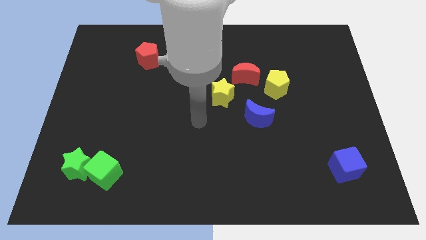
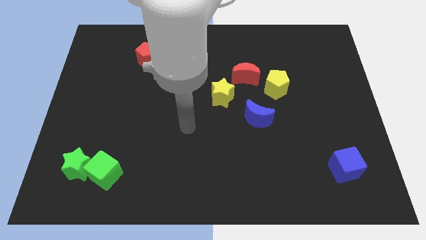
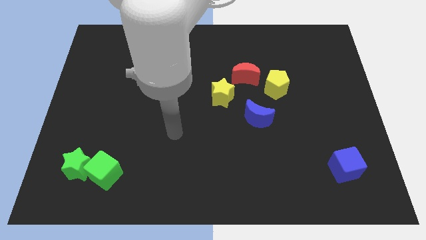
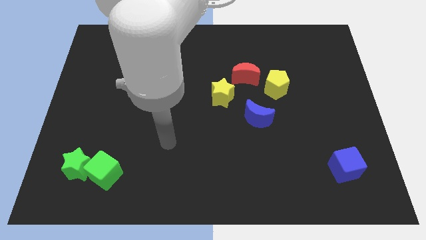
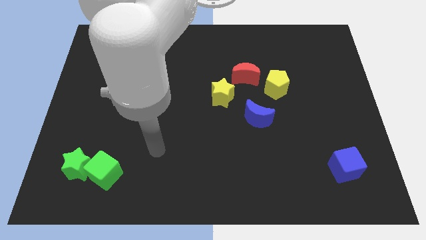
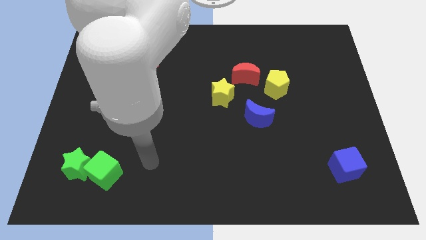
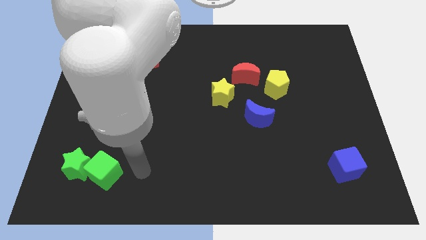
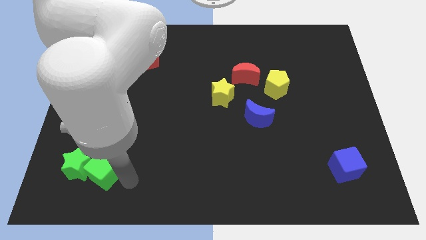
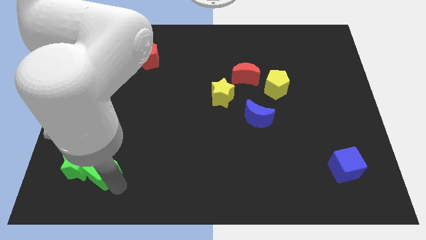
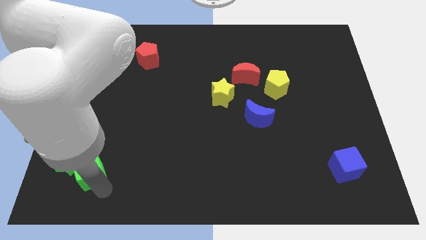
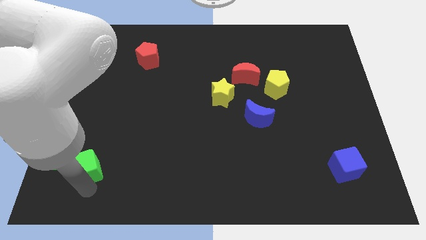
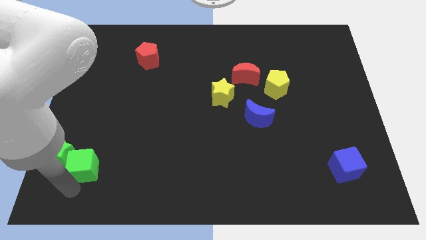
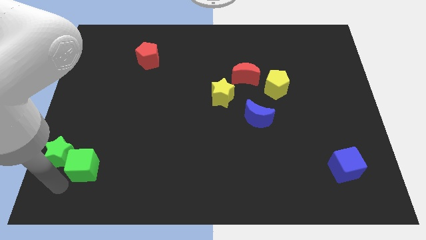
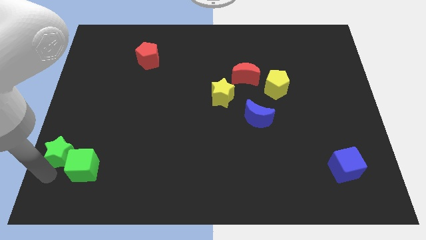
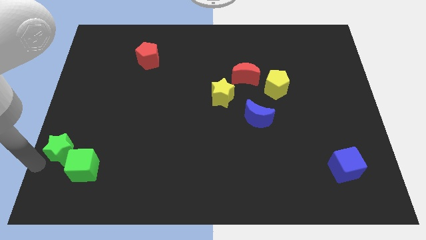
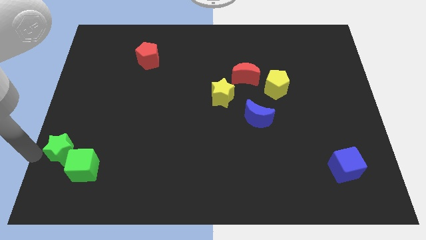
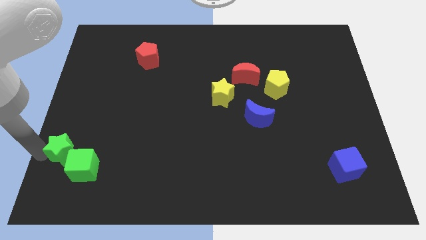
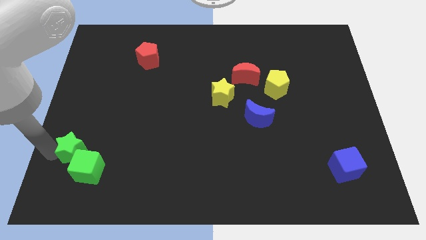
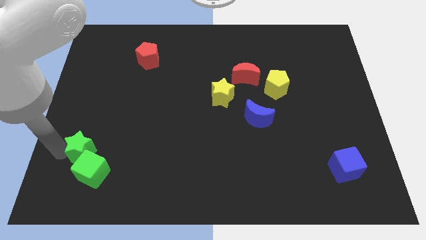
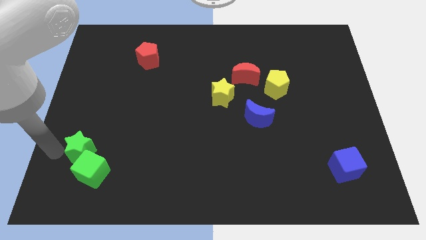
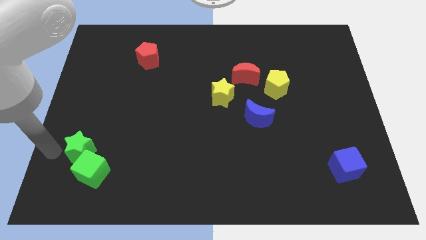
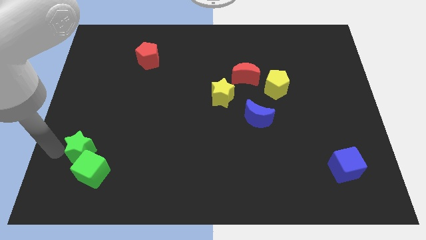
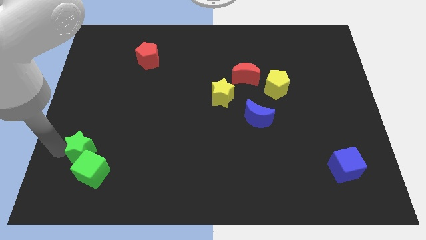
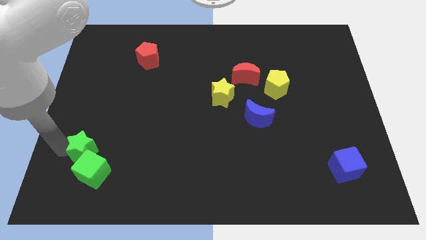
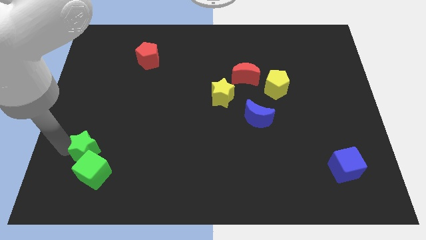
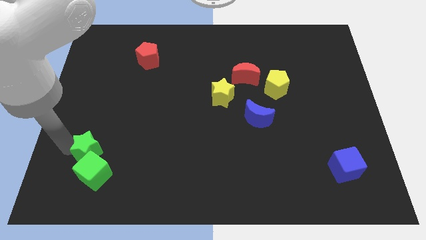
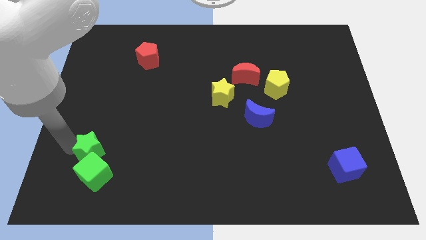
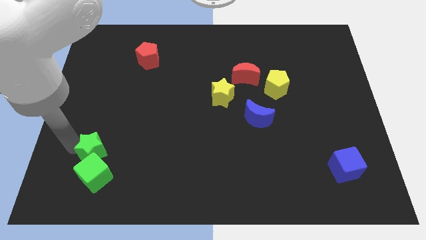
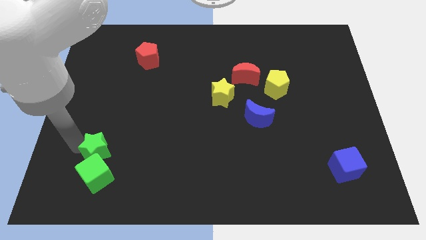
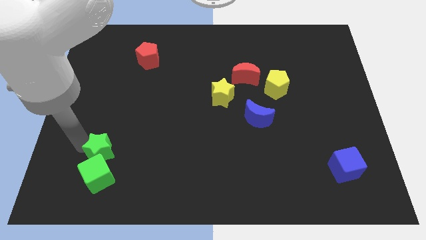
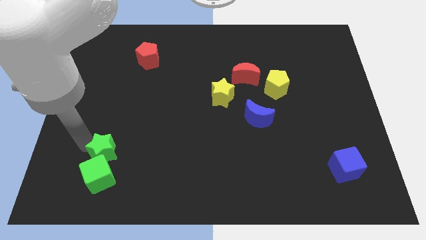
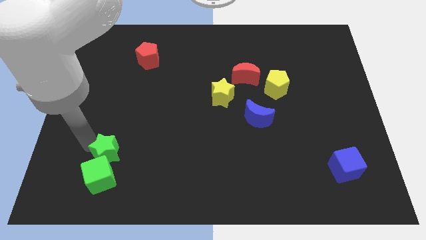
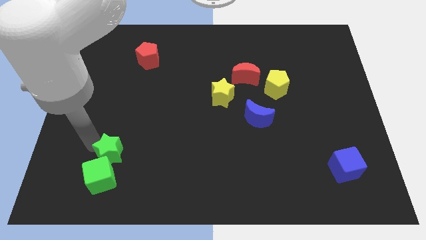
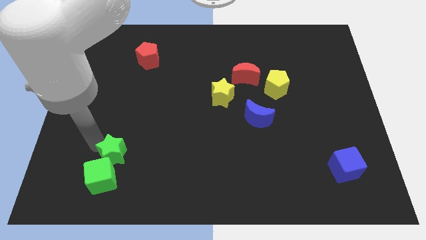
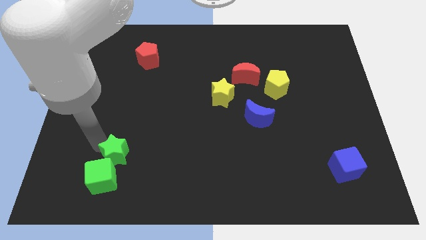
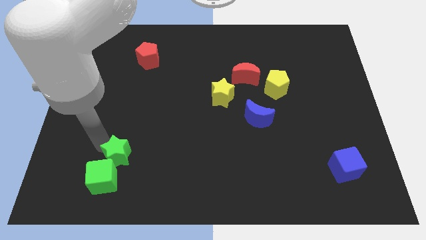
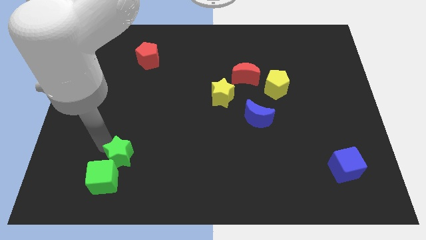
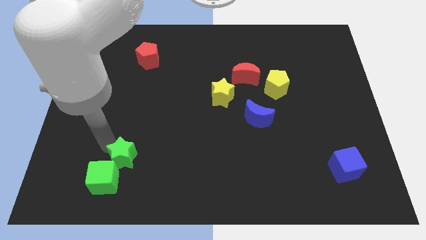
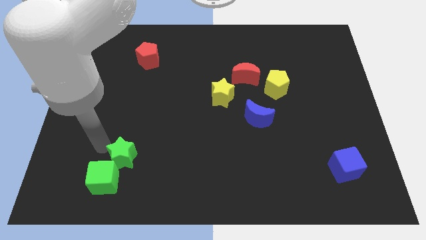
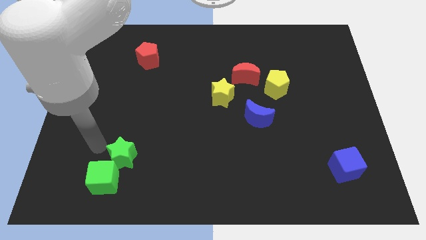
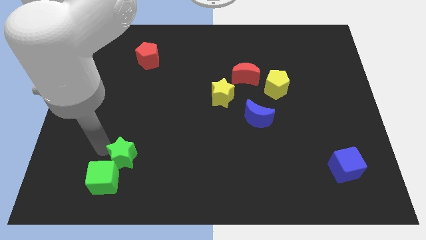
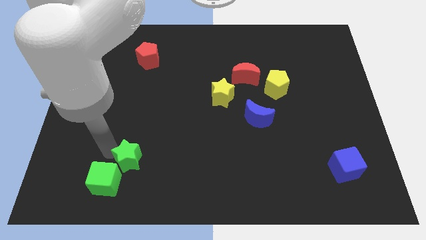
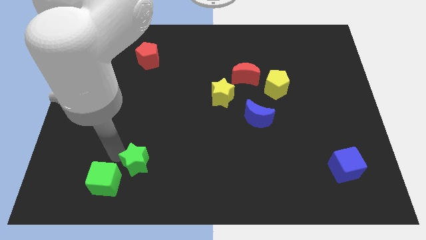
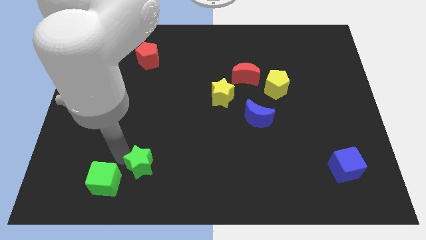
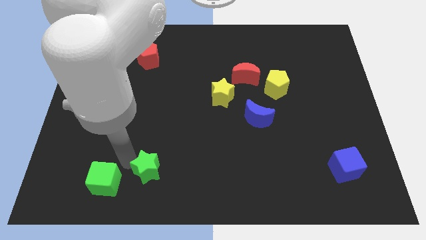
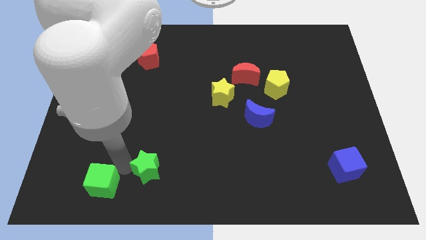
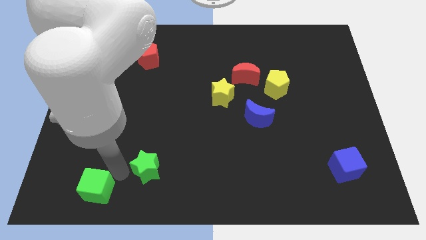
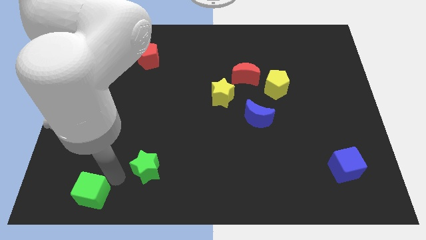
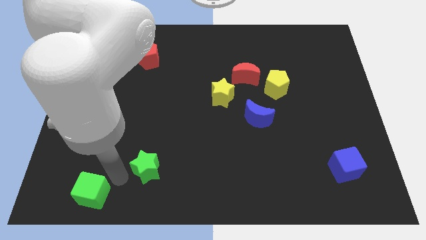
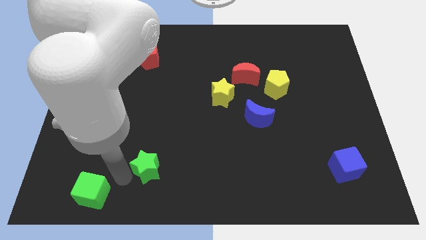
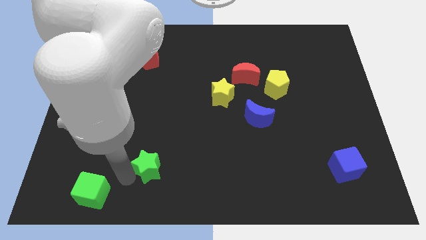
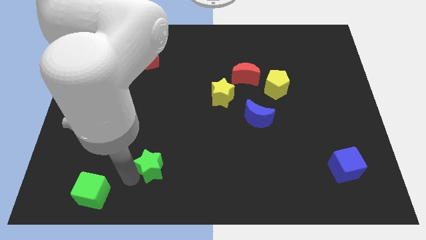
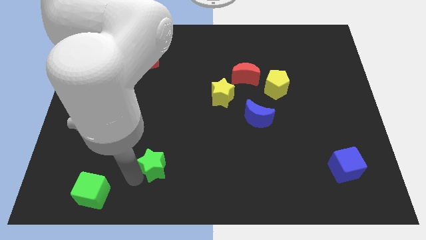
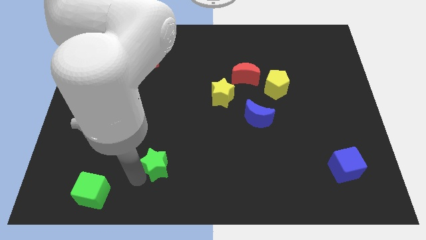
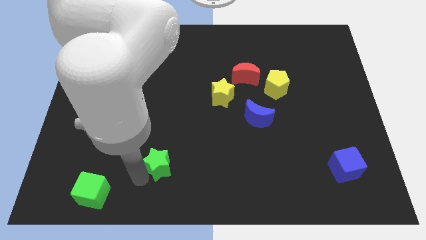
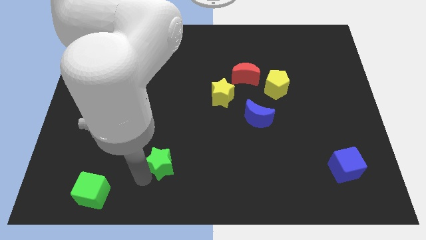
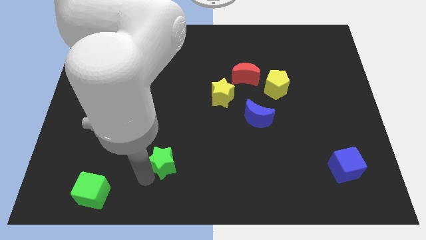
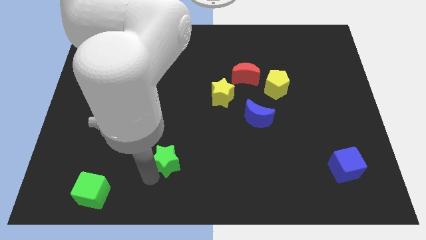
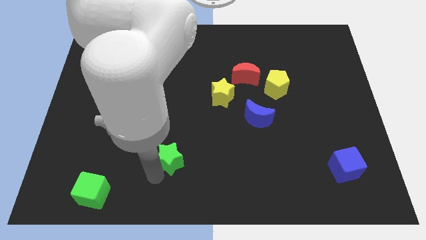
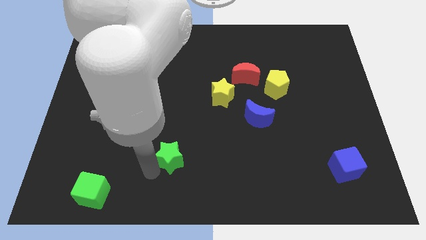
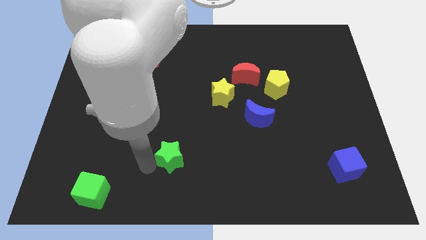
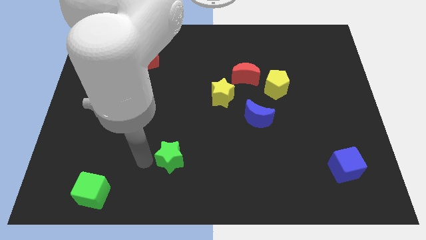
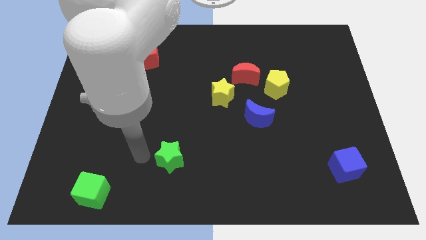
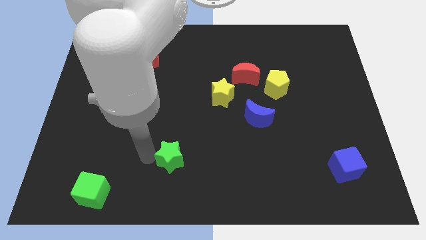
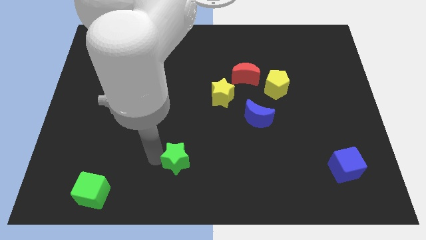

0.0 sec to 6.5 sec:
move the green star to the right

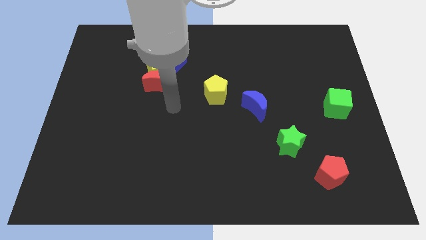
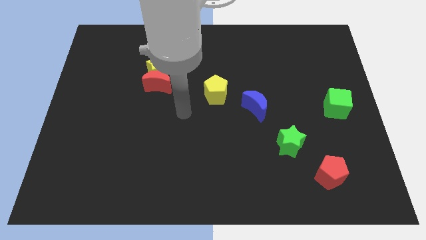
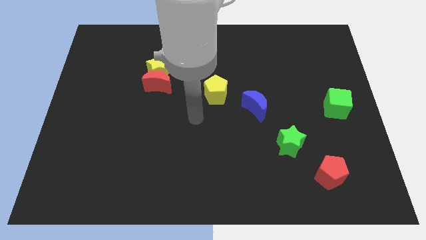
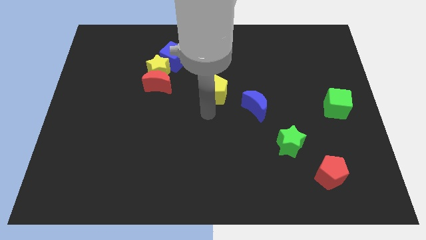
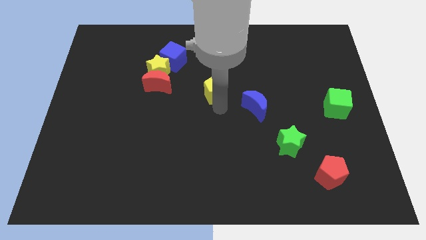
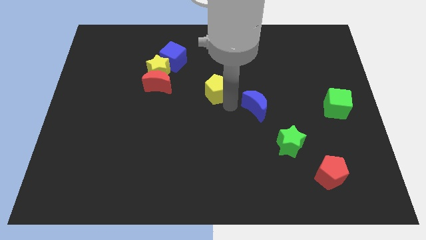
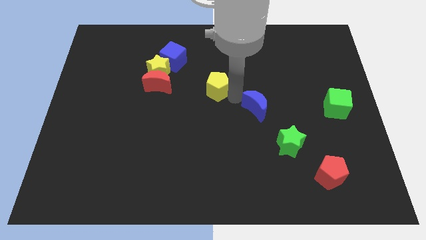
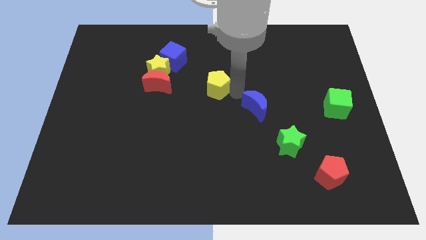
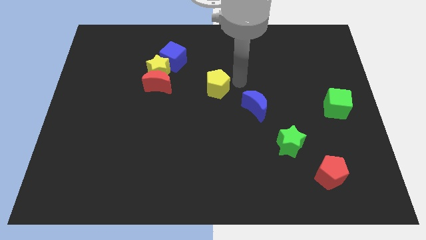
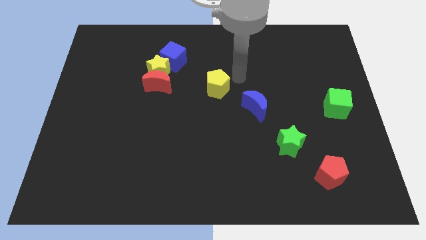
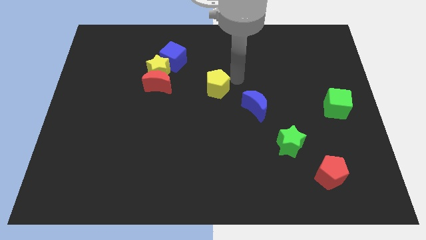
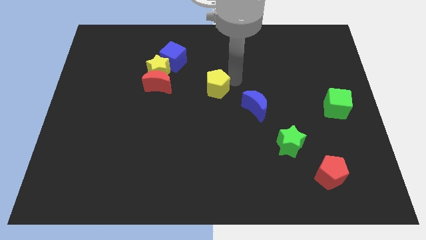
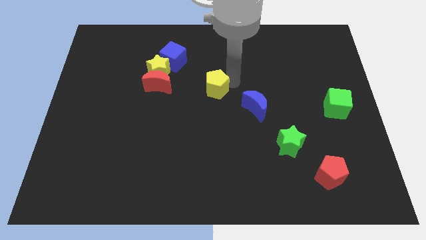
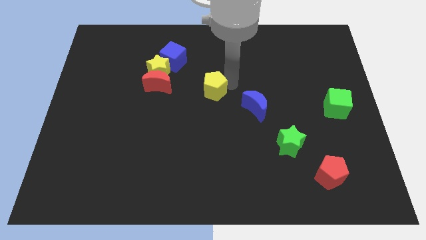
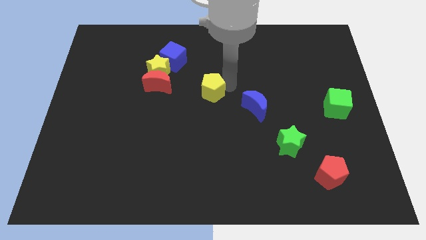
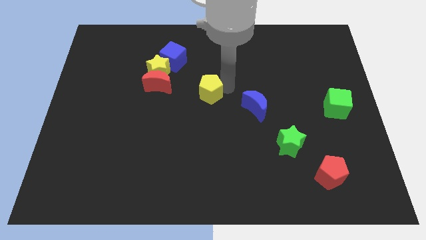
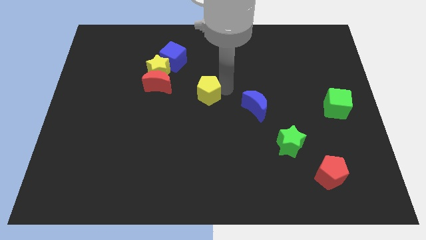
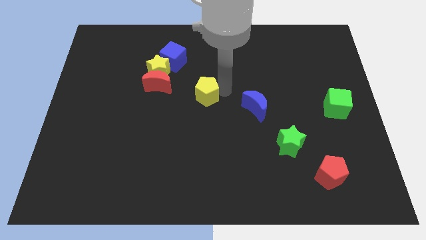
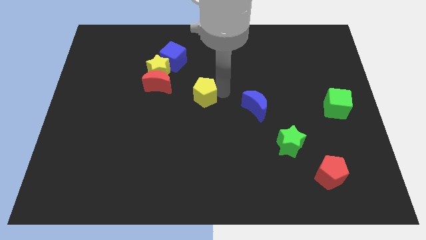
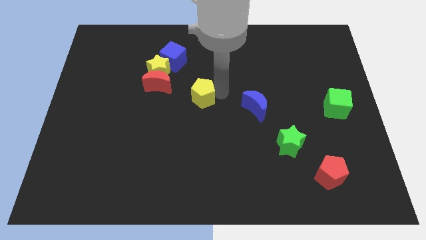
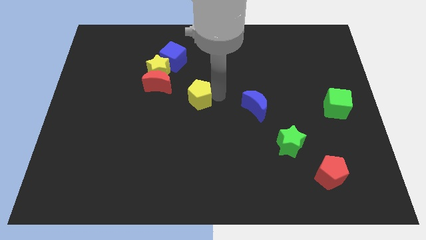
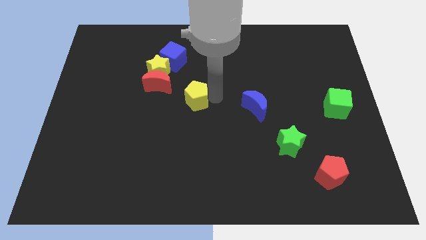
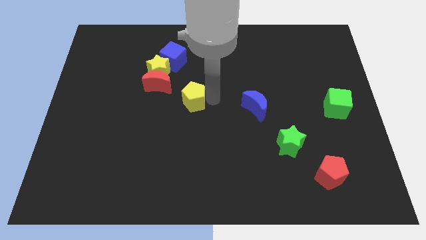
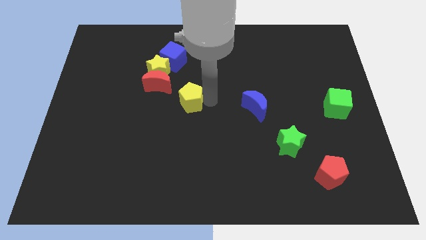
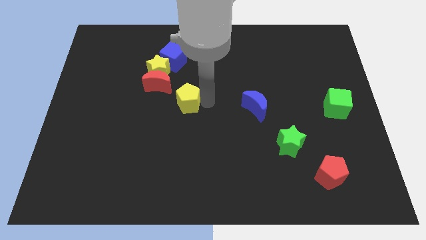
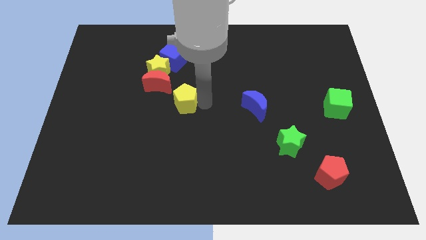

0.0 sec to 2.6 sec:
push the yellow pentagon to the left somewhat
